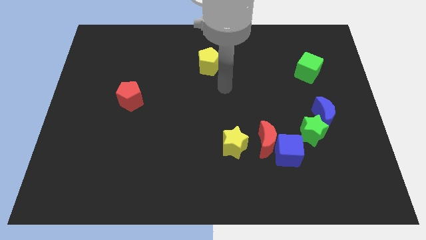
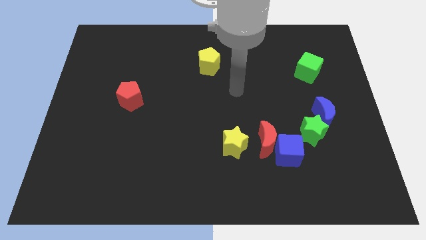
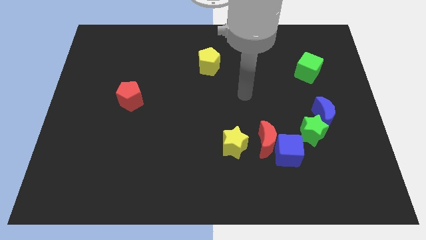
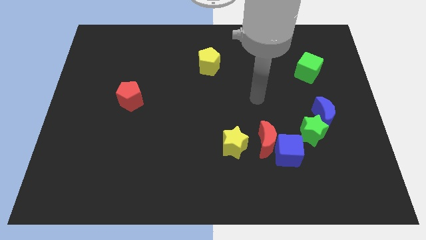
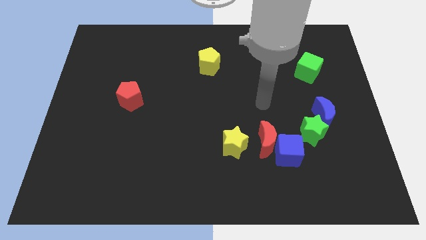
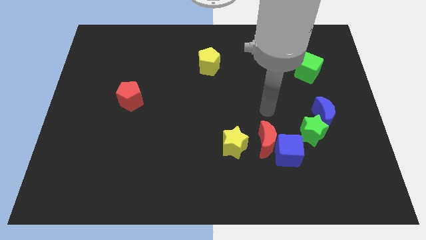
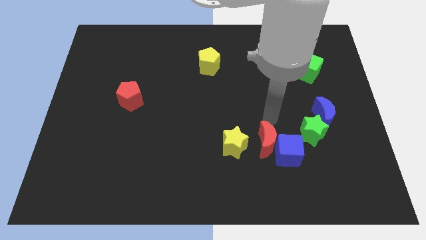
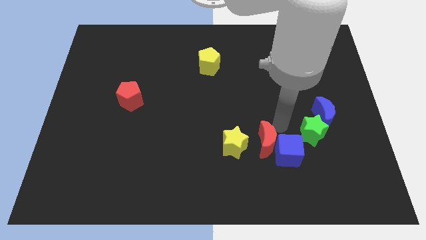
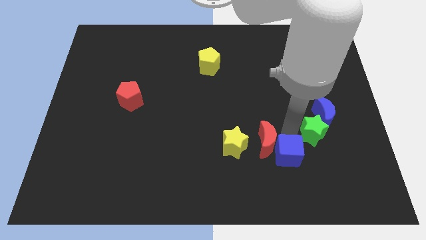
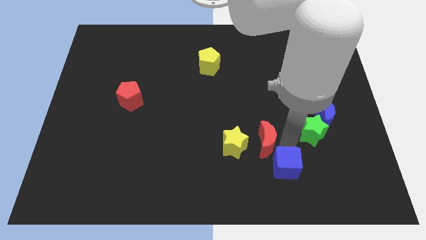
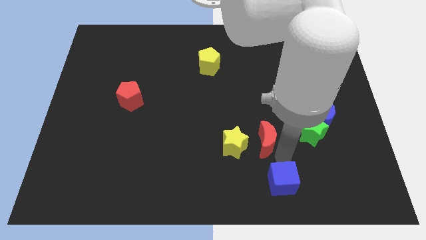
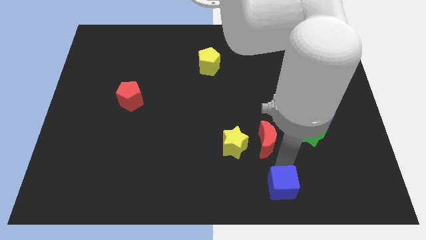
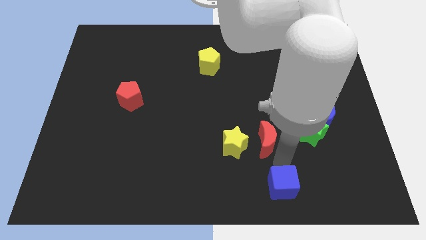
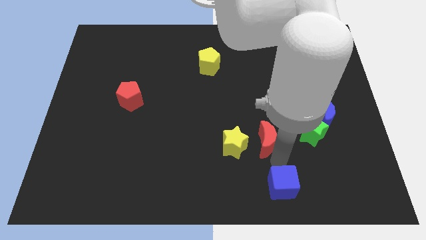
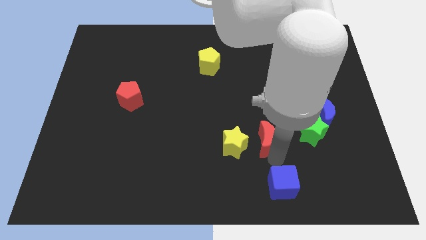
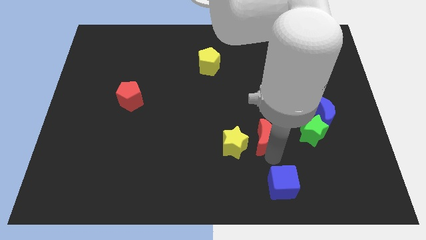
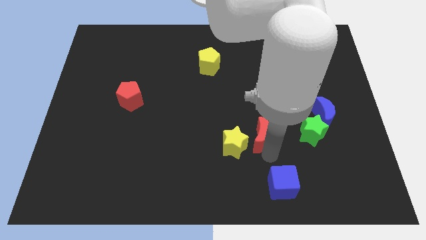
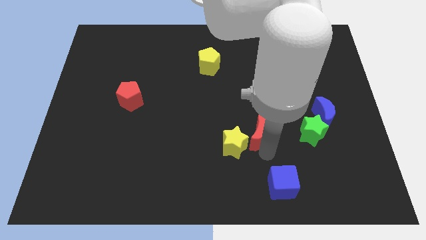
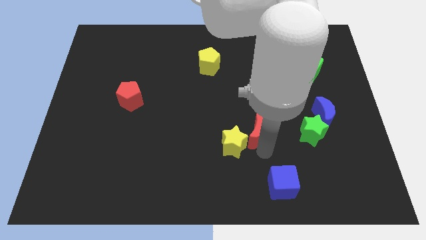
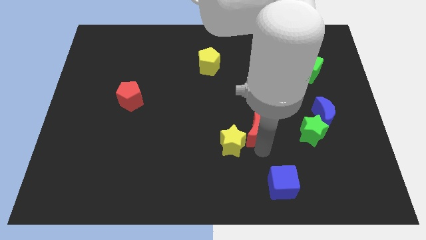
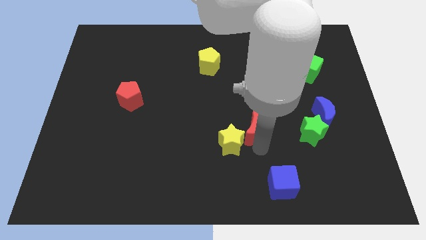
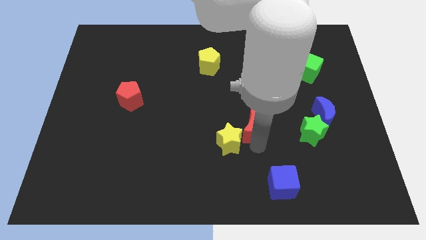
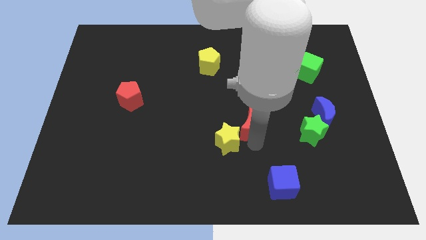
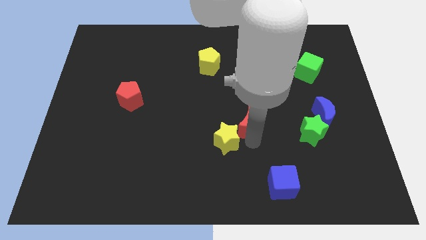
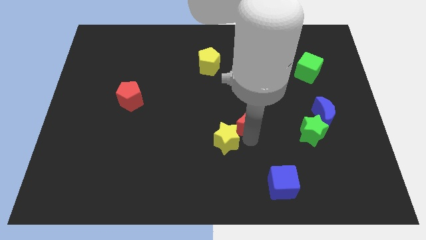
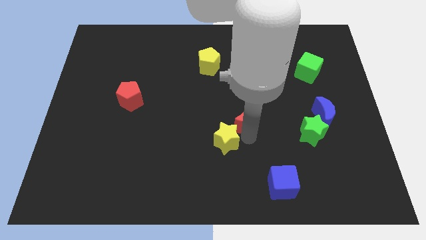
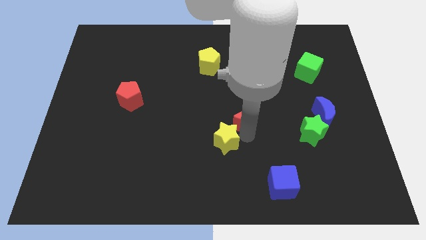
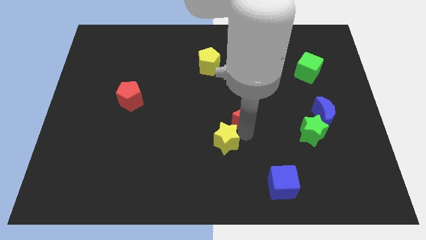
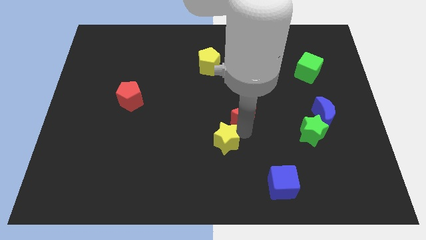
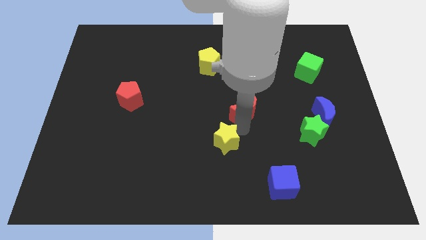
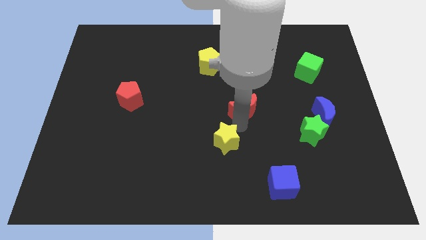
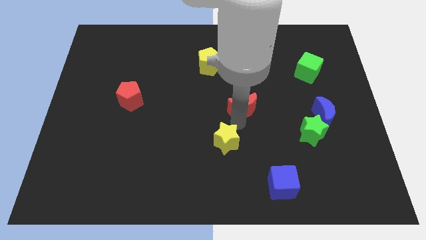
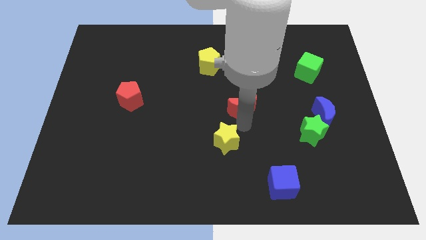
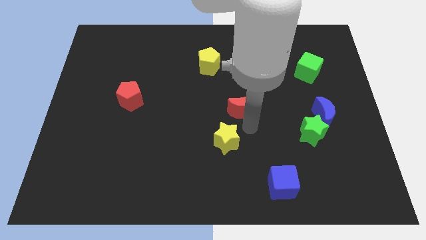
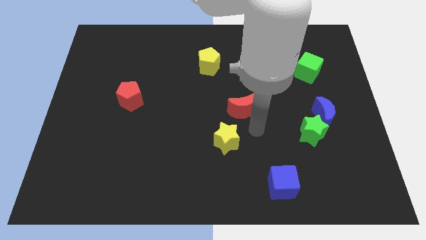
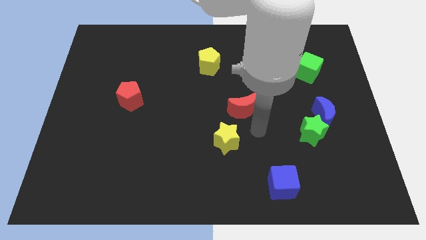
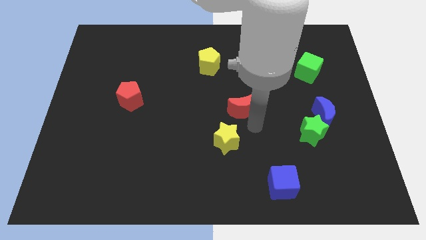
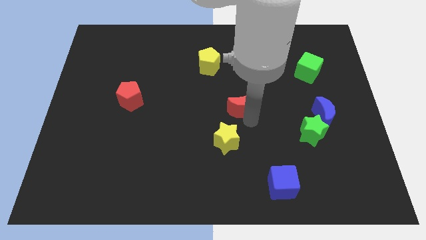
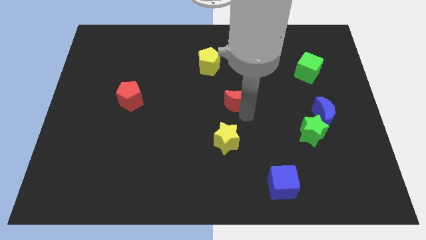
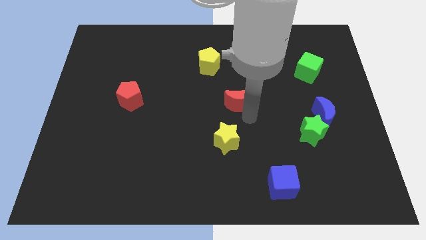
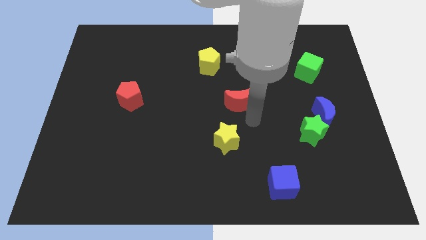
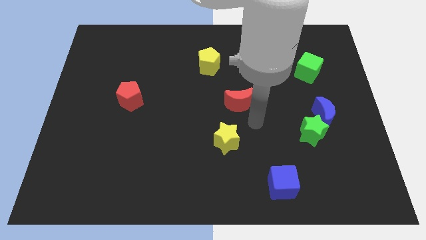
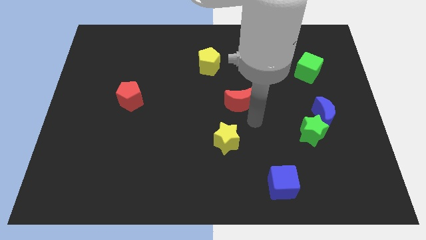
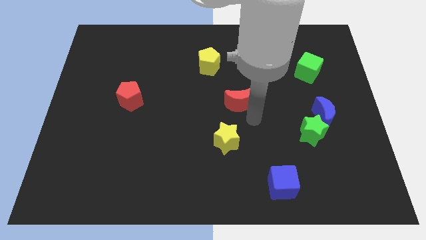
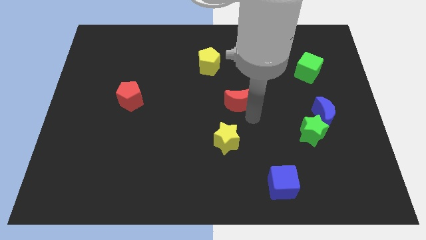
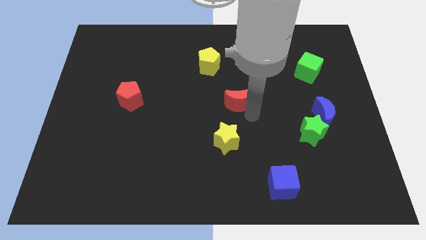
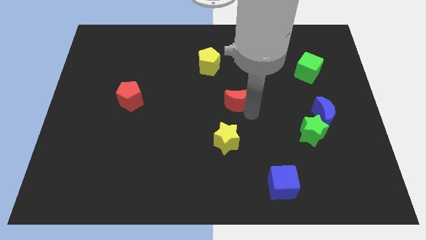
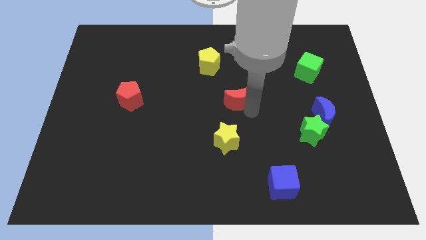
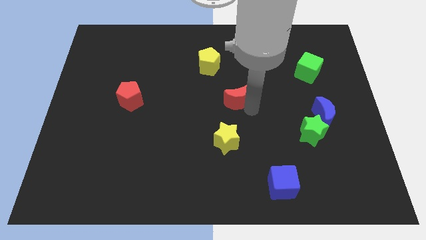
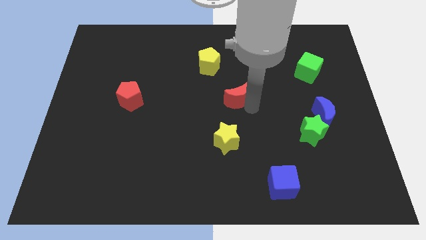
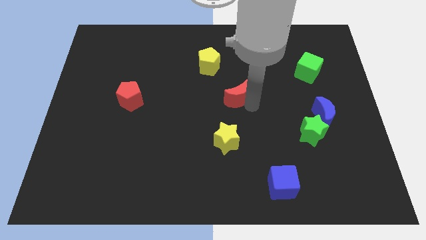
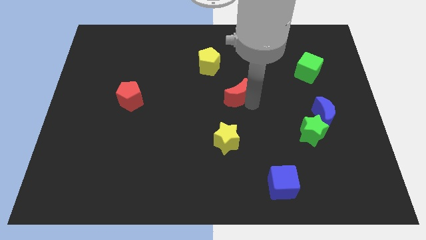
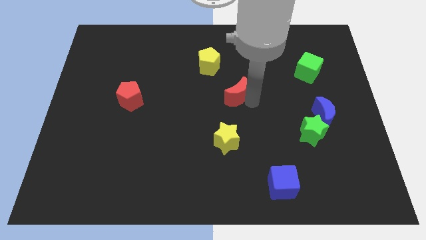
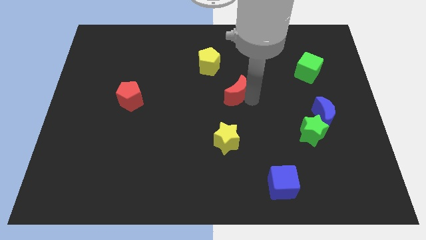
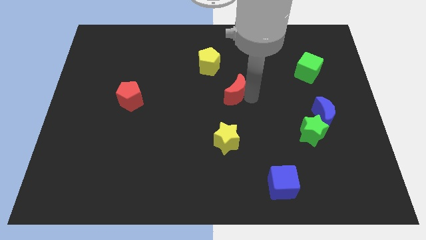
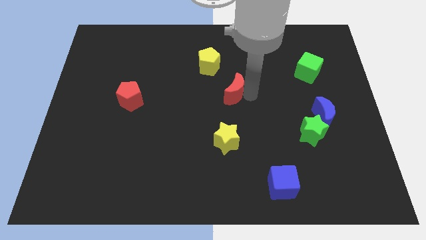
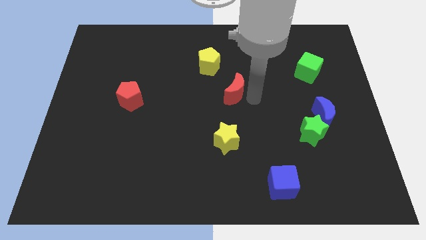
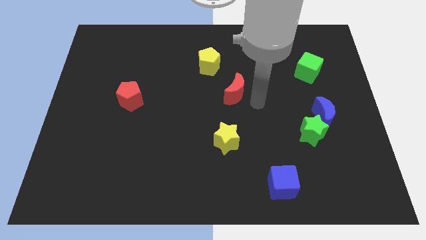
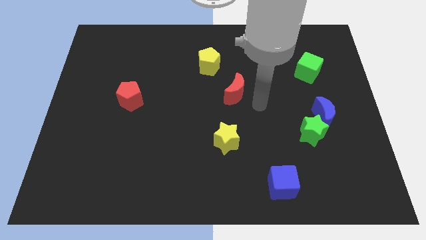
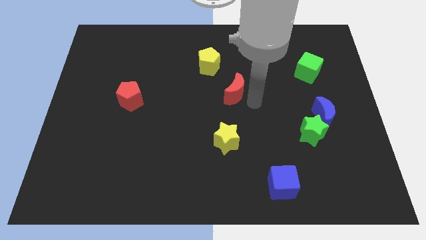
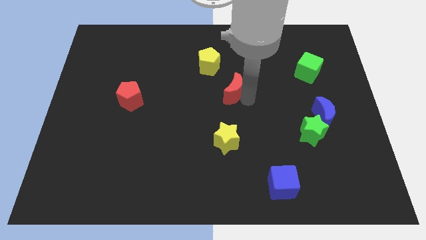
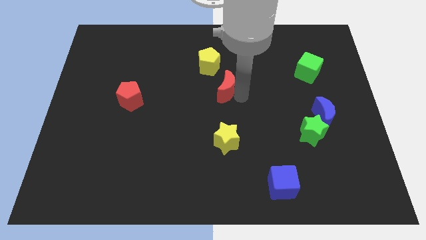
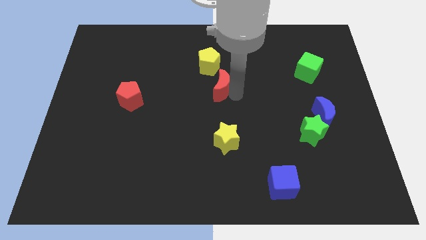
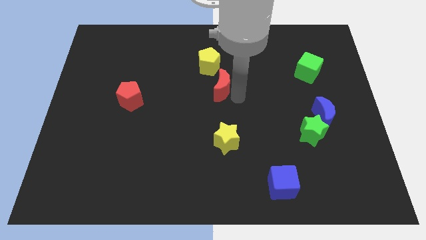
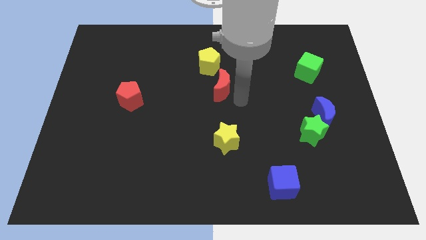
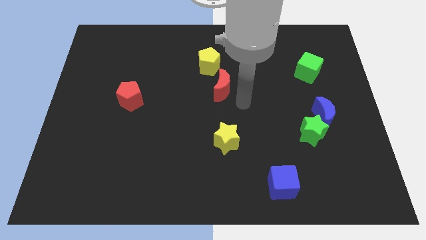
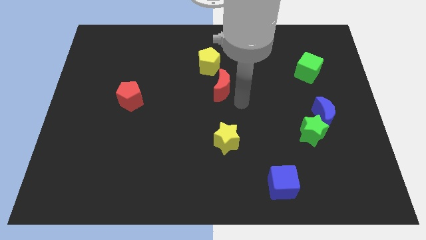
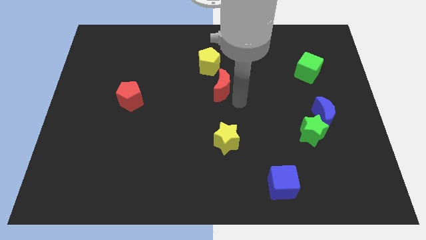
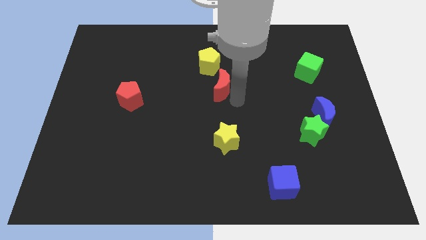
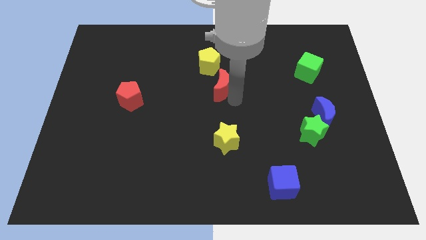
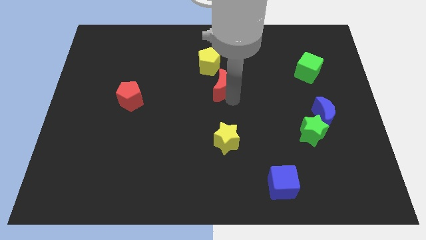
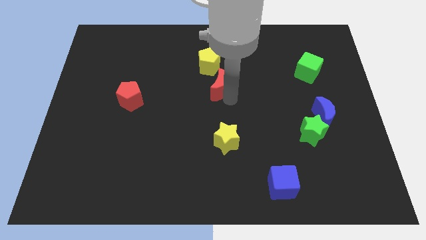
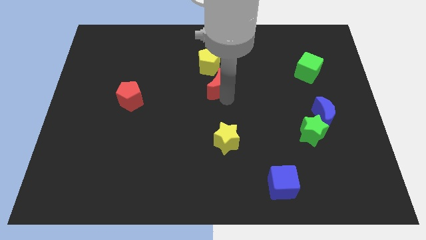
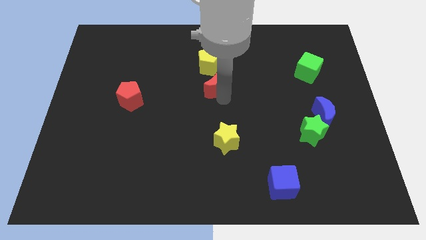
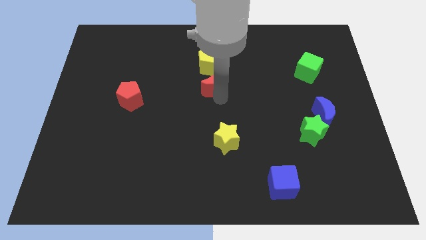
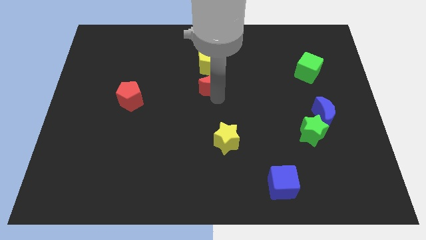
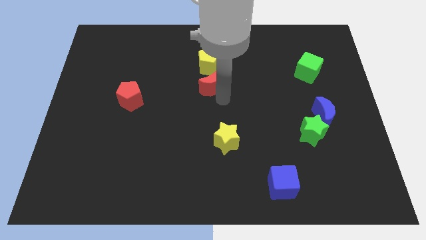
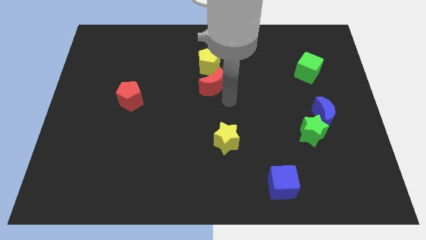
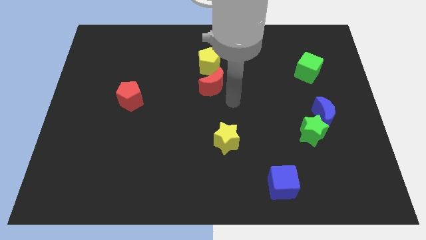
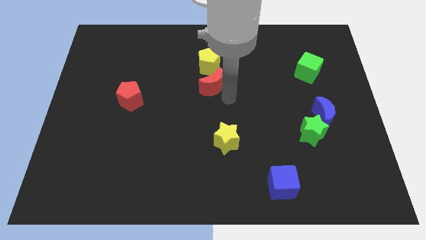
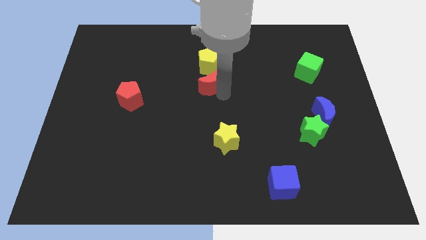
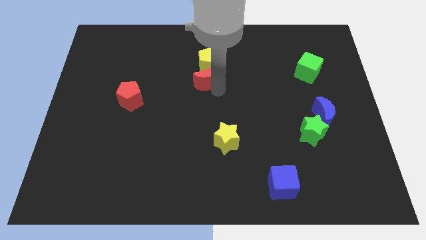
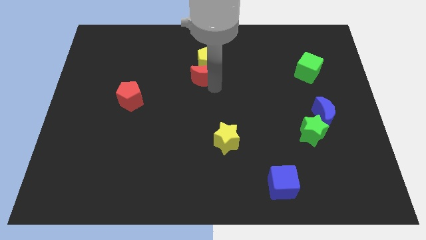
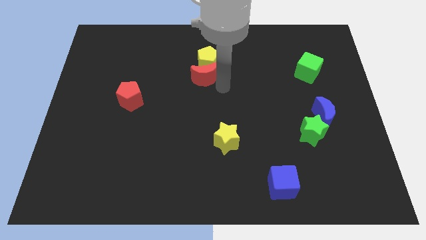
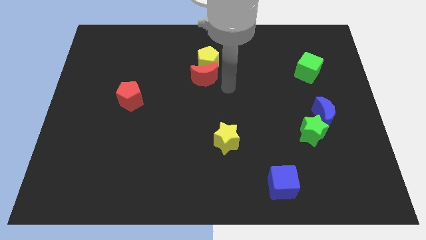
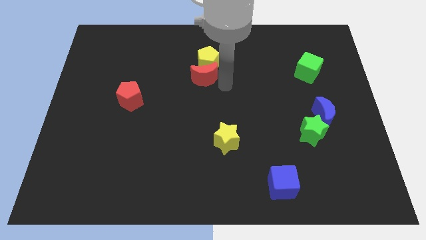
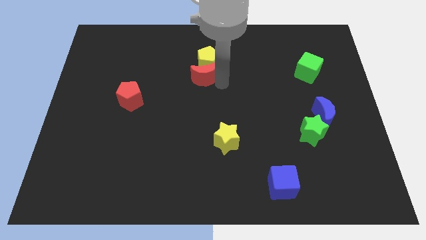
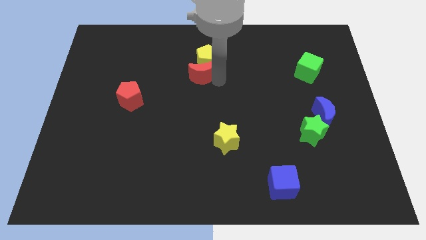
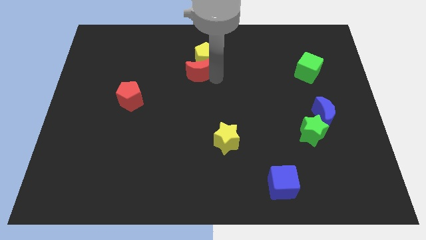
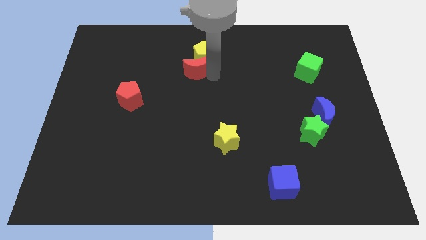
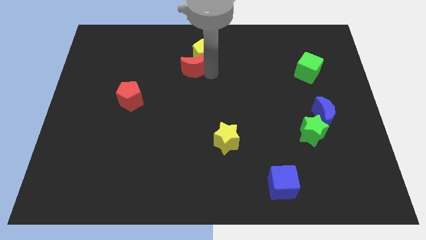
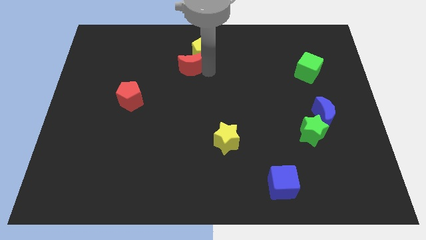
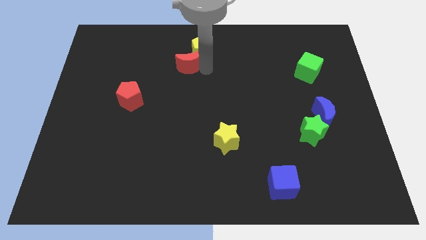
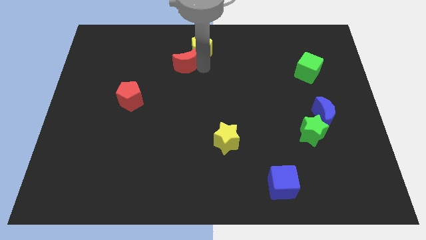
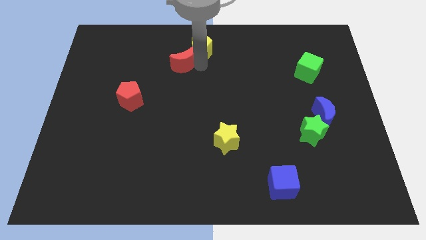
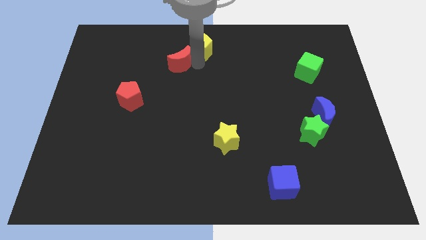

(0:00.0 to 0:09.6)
put the red moon to the left side of the yellow pentagon
